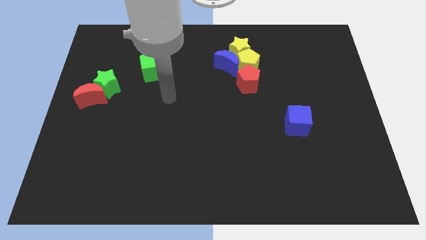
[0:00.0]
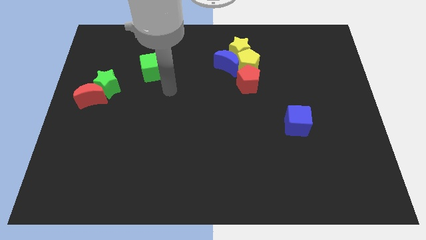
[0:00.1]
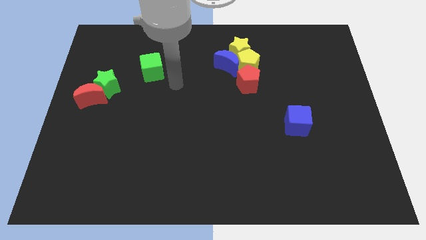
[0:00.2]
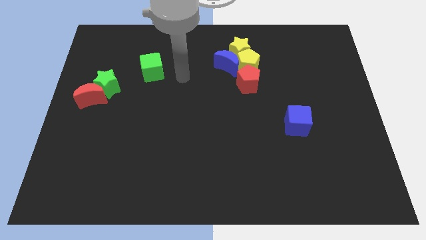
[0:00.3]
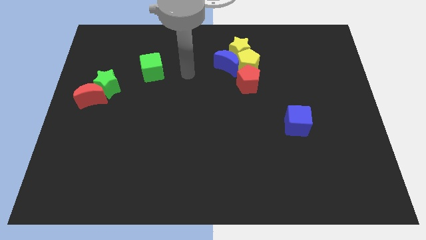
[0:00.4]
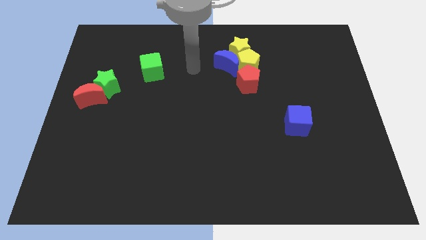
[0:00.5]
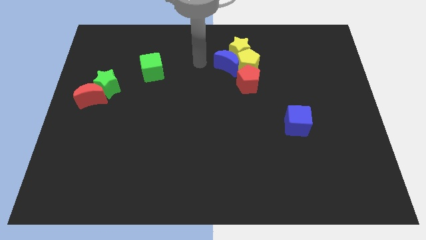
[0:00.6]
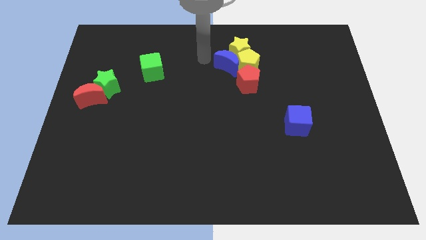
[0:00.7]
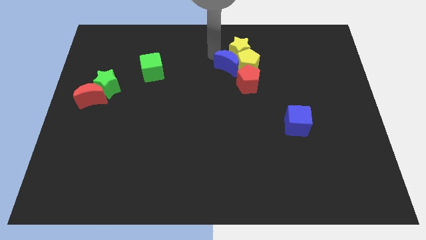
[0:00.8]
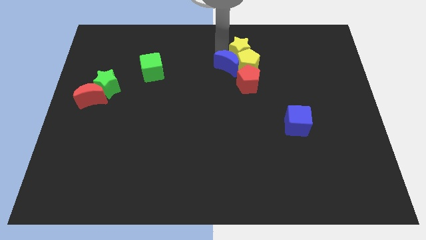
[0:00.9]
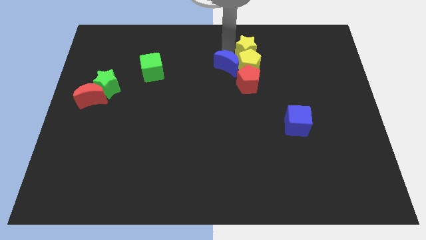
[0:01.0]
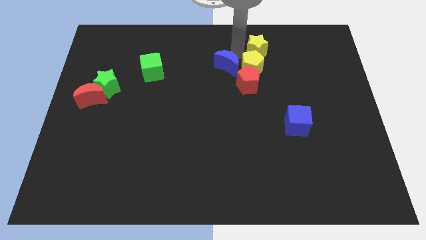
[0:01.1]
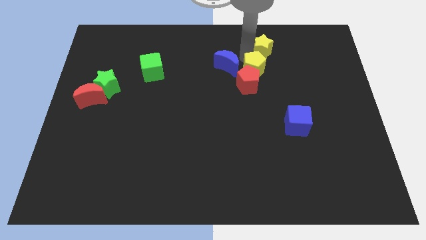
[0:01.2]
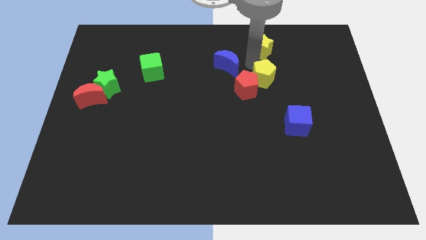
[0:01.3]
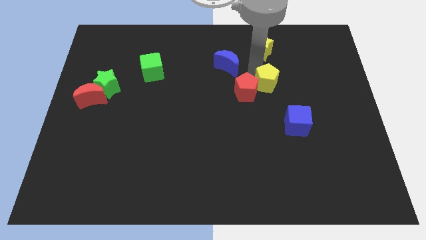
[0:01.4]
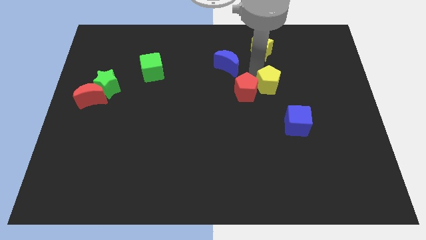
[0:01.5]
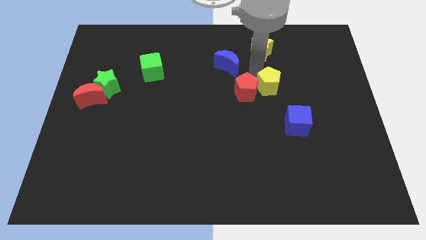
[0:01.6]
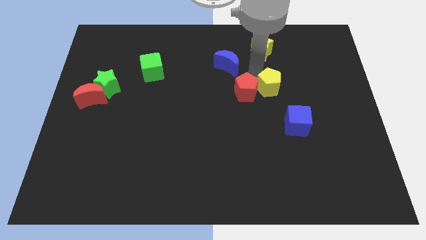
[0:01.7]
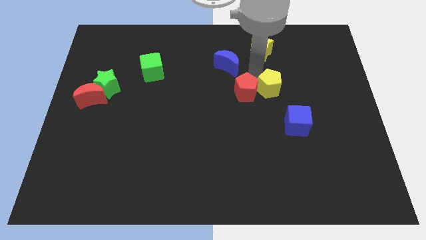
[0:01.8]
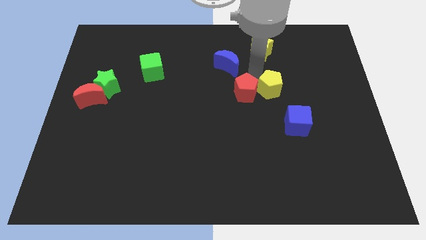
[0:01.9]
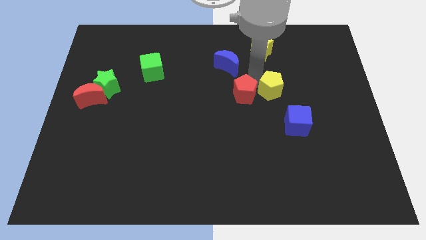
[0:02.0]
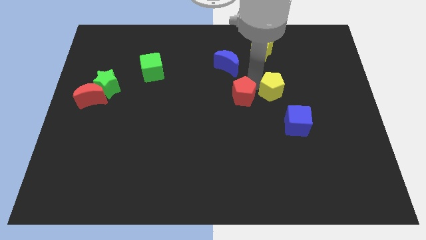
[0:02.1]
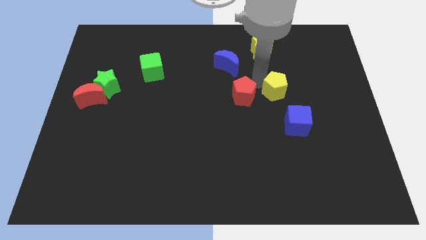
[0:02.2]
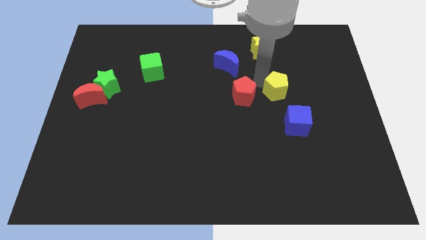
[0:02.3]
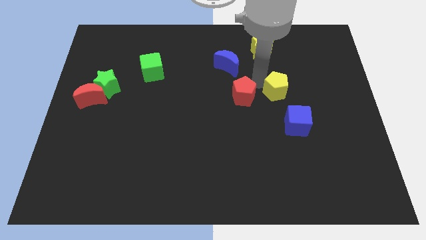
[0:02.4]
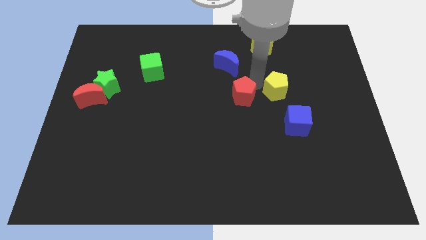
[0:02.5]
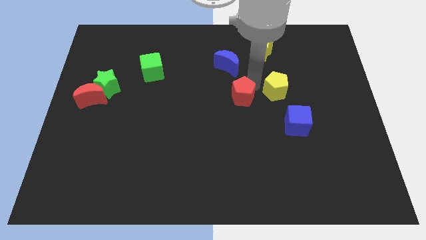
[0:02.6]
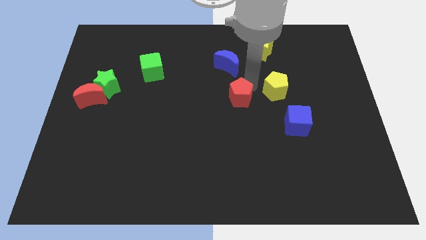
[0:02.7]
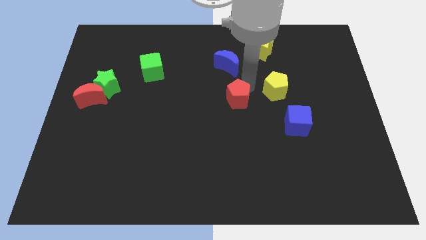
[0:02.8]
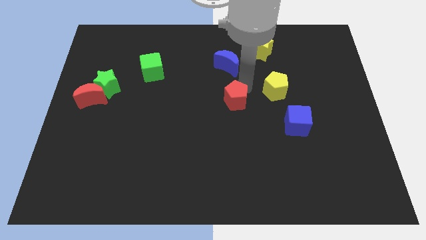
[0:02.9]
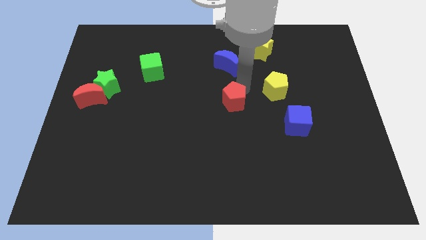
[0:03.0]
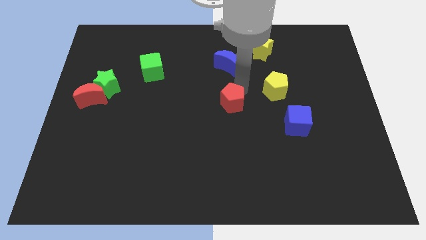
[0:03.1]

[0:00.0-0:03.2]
push the red pentagon down and then to the left a little

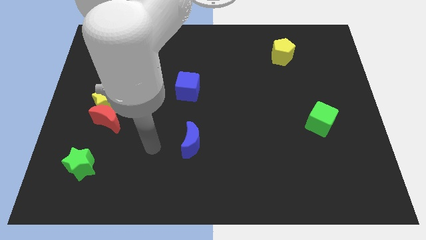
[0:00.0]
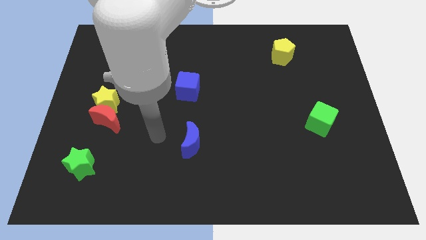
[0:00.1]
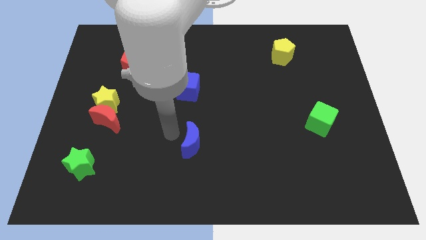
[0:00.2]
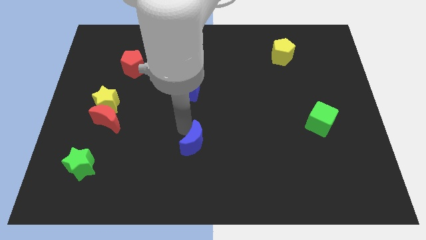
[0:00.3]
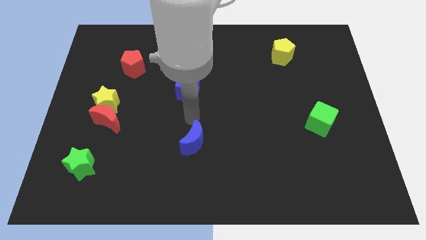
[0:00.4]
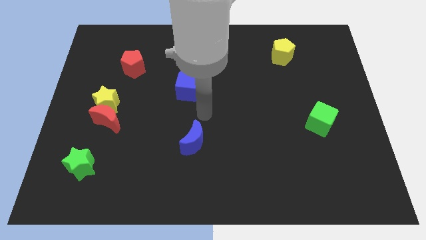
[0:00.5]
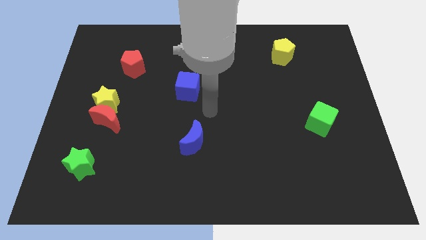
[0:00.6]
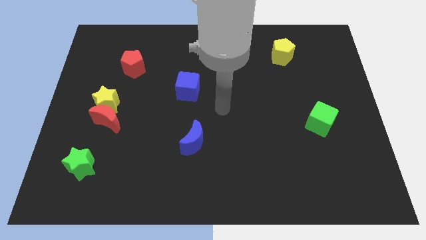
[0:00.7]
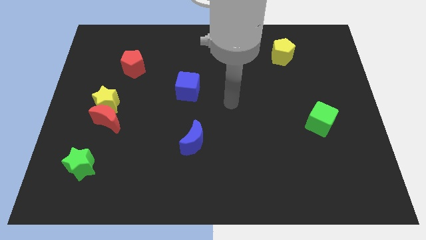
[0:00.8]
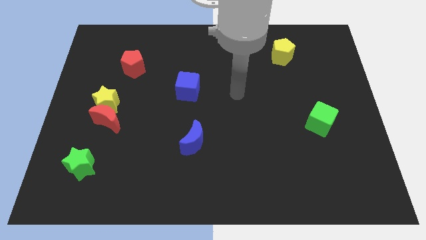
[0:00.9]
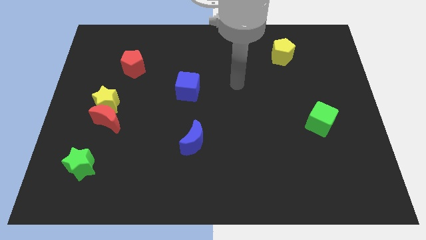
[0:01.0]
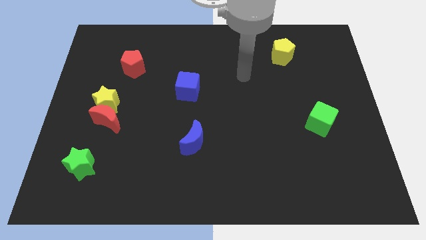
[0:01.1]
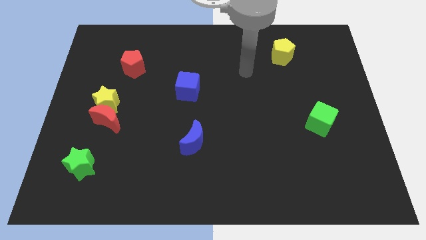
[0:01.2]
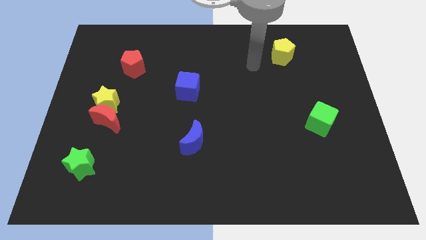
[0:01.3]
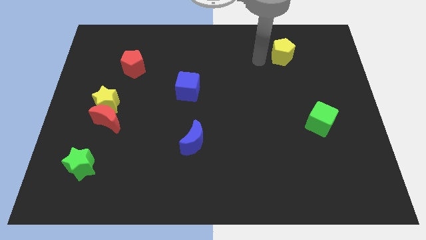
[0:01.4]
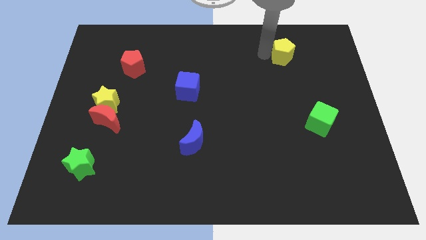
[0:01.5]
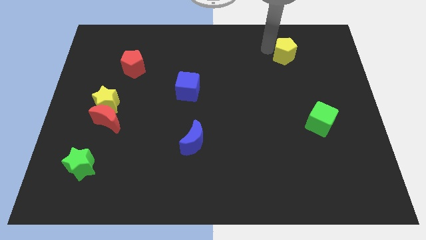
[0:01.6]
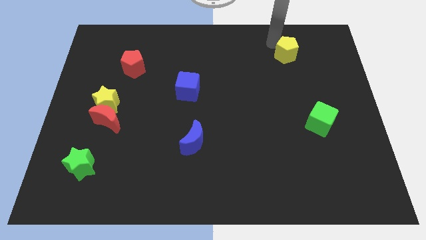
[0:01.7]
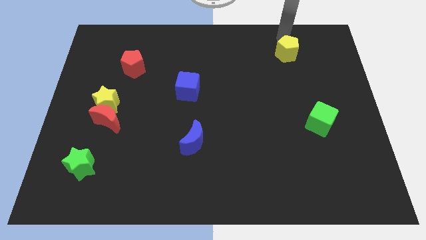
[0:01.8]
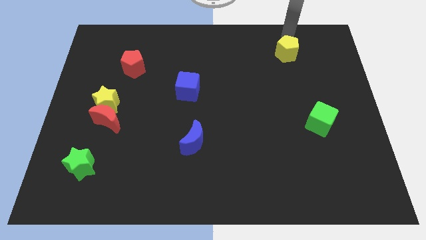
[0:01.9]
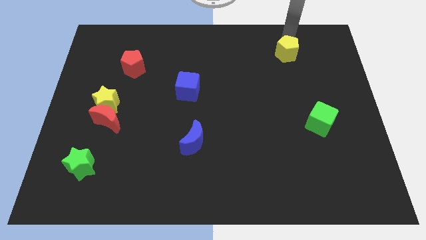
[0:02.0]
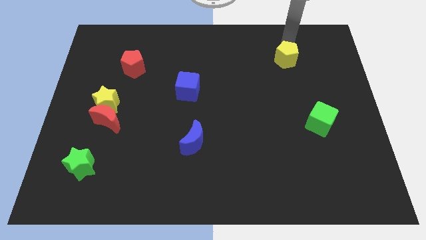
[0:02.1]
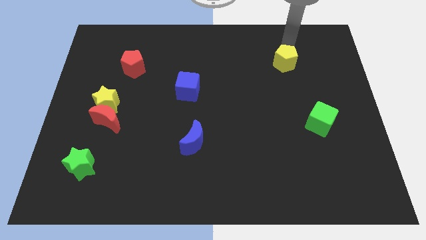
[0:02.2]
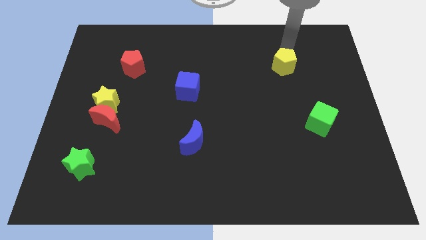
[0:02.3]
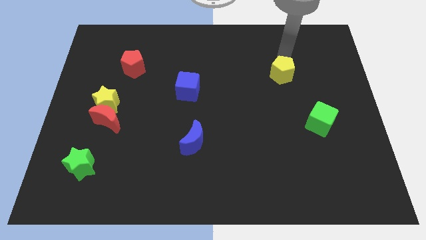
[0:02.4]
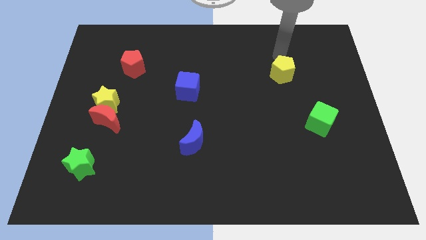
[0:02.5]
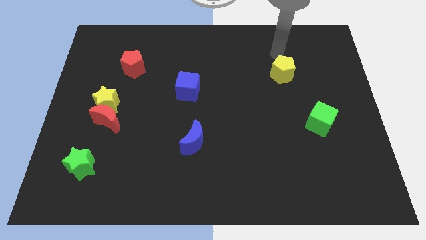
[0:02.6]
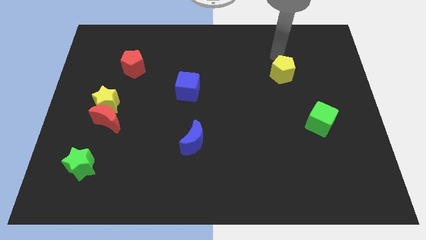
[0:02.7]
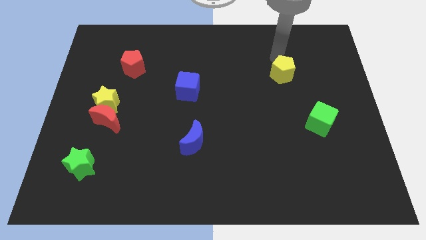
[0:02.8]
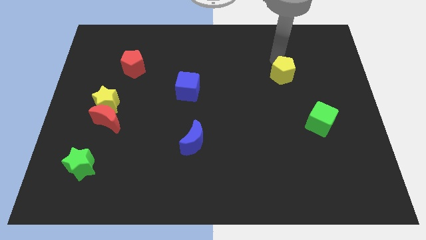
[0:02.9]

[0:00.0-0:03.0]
move the yellow pentagon down a little

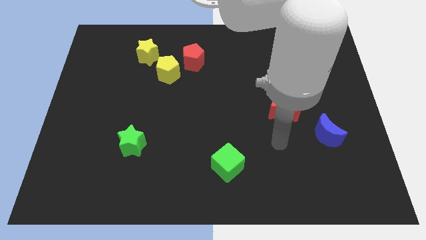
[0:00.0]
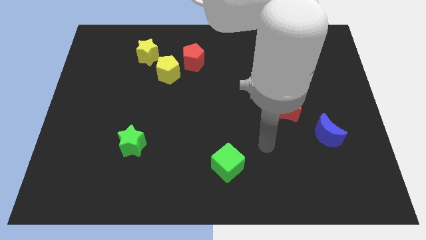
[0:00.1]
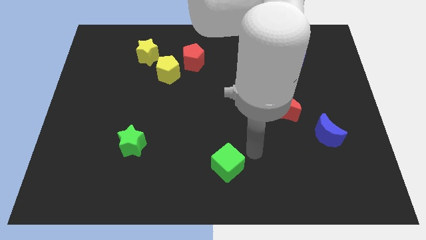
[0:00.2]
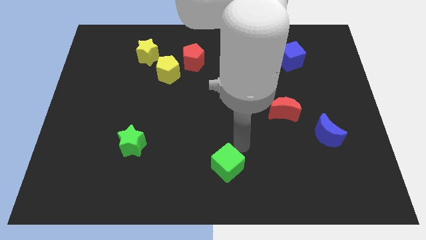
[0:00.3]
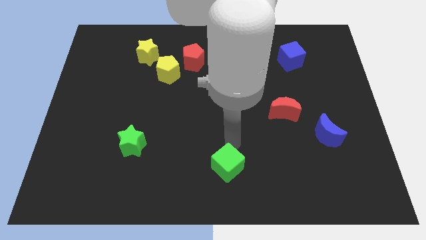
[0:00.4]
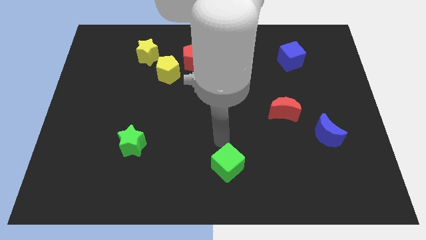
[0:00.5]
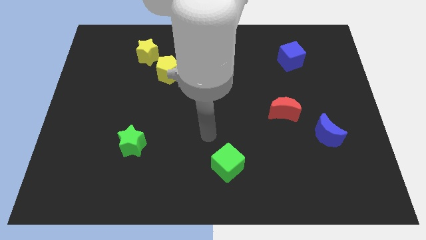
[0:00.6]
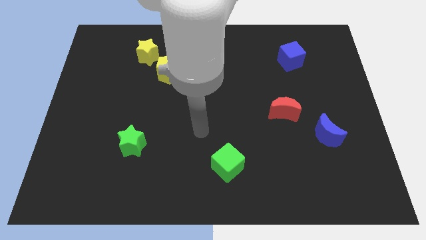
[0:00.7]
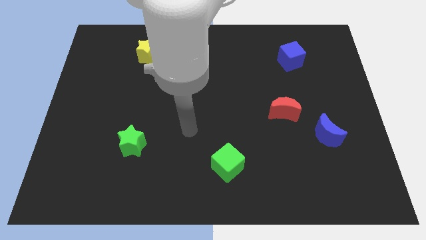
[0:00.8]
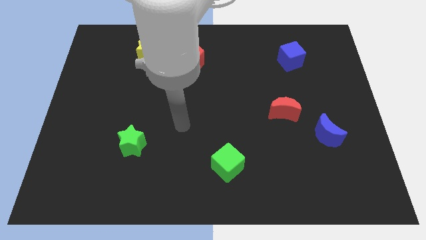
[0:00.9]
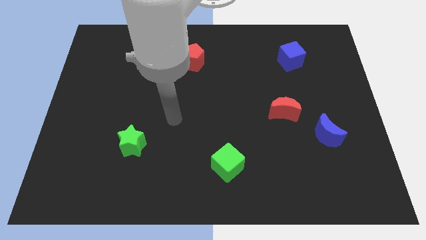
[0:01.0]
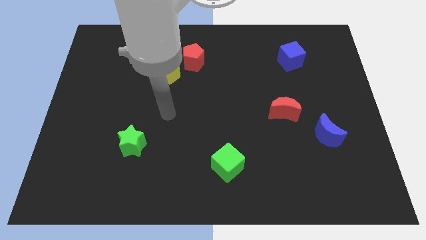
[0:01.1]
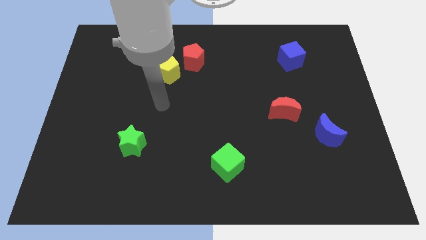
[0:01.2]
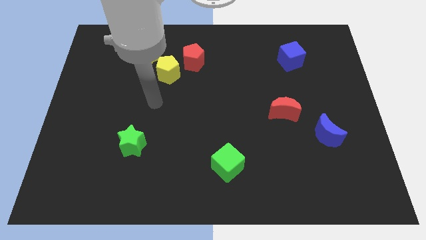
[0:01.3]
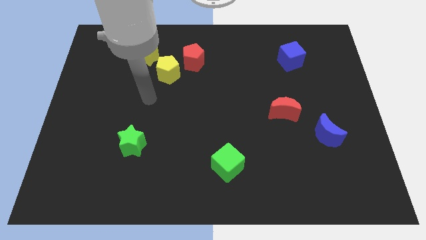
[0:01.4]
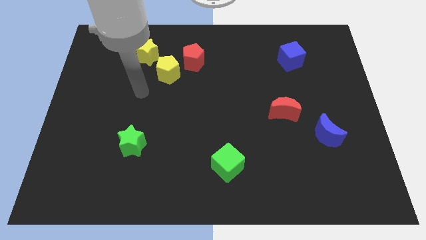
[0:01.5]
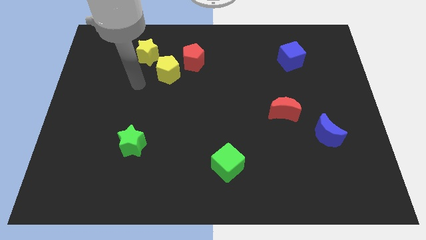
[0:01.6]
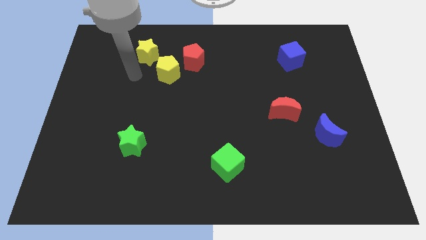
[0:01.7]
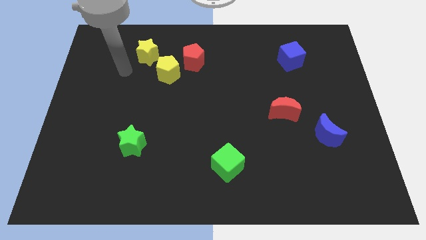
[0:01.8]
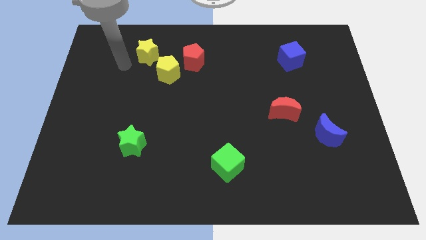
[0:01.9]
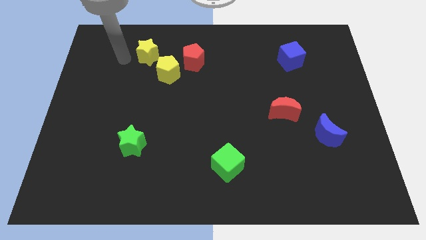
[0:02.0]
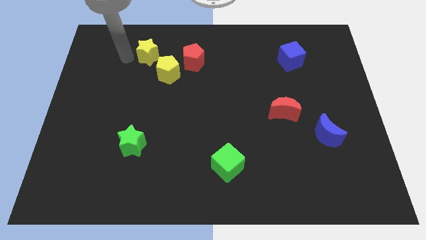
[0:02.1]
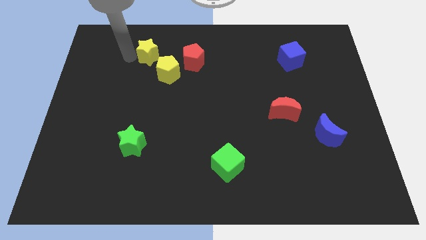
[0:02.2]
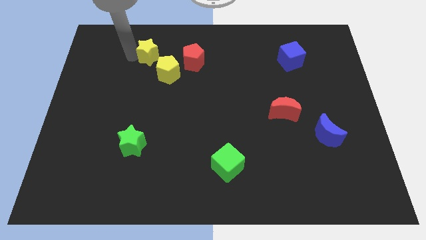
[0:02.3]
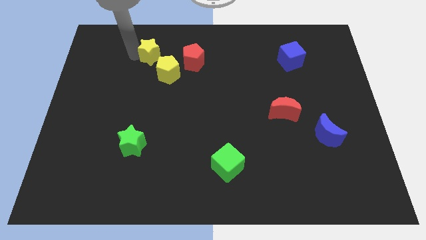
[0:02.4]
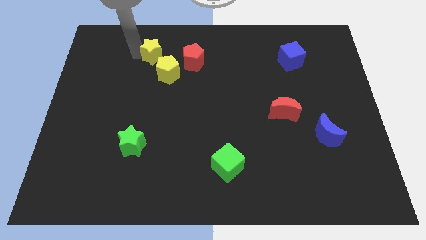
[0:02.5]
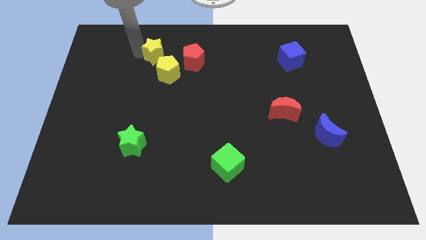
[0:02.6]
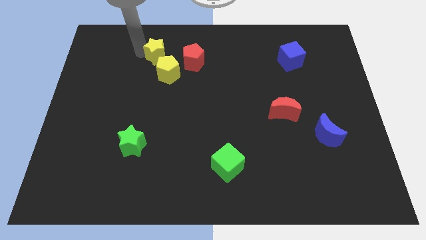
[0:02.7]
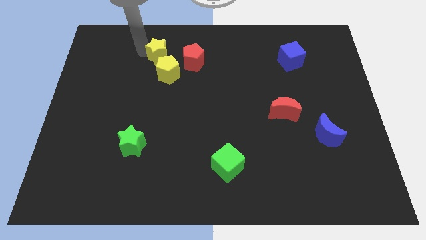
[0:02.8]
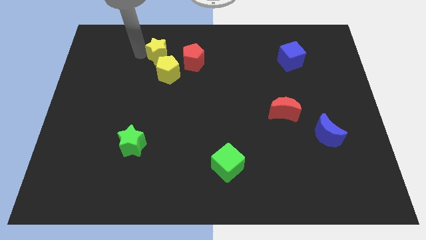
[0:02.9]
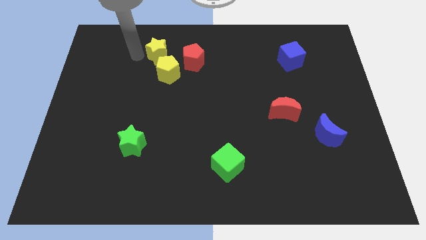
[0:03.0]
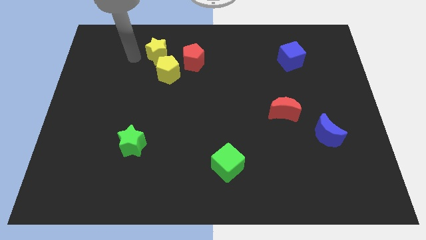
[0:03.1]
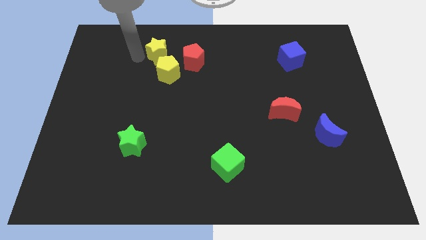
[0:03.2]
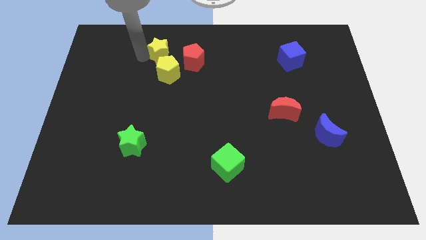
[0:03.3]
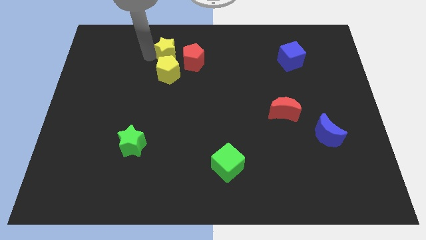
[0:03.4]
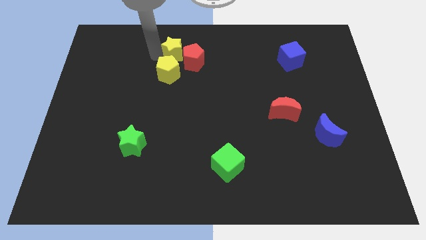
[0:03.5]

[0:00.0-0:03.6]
slightly slide the yellow star right
